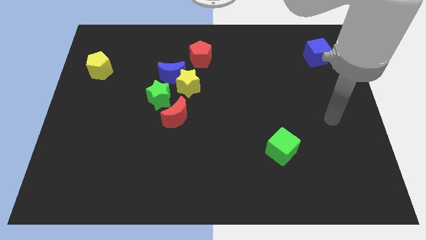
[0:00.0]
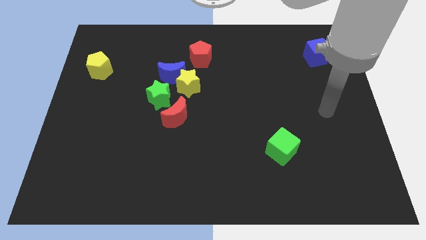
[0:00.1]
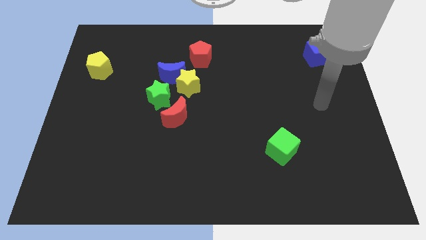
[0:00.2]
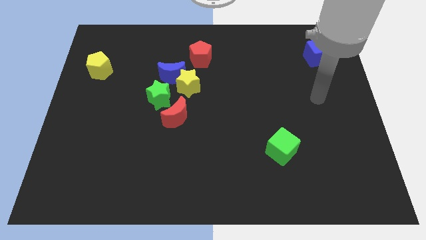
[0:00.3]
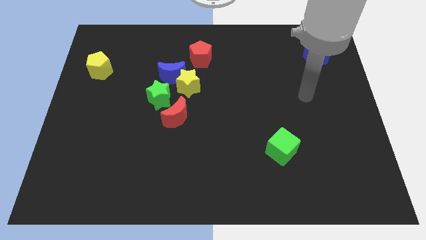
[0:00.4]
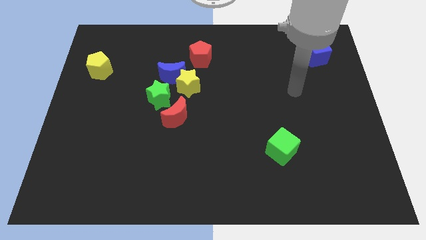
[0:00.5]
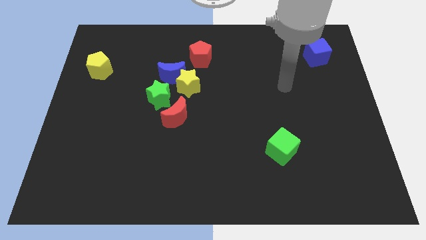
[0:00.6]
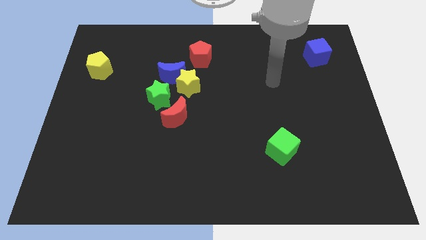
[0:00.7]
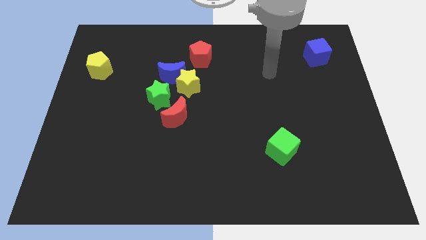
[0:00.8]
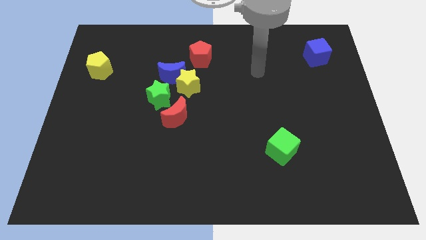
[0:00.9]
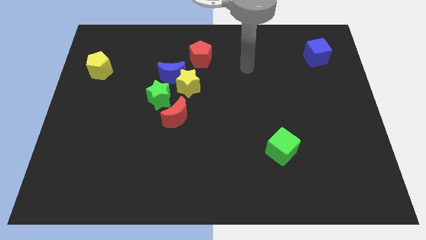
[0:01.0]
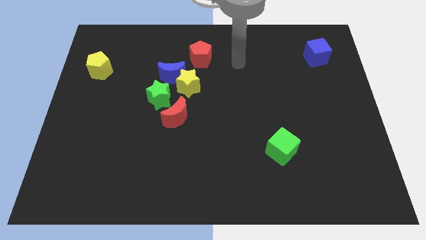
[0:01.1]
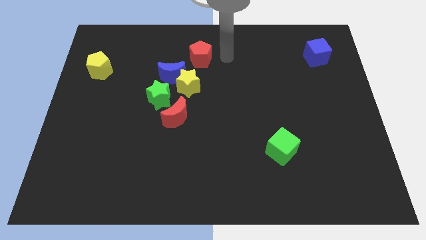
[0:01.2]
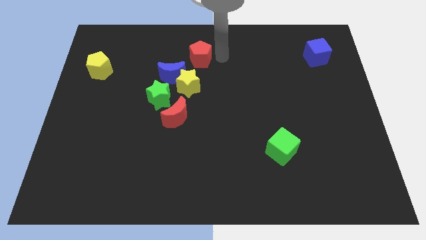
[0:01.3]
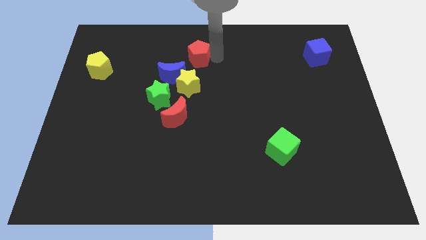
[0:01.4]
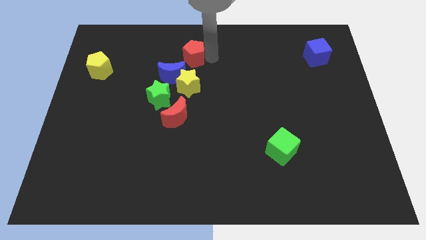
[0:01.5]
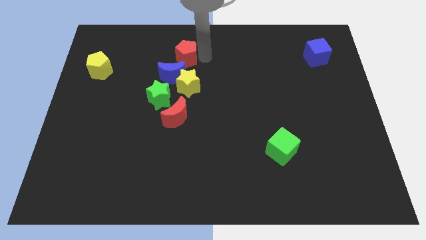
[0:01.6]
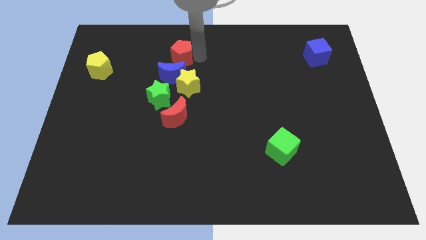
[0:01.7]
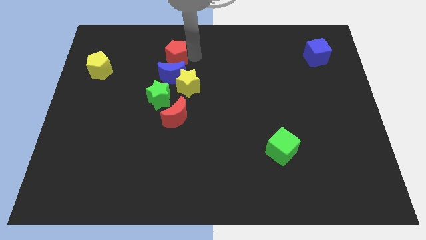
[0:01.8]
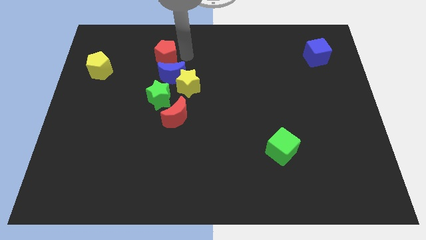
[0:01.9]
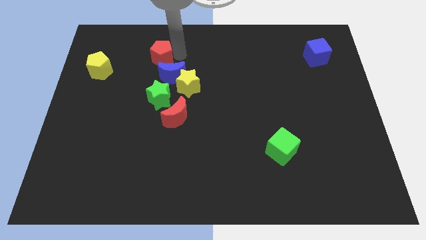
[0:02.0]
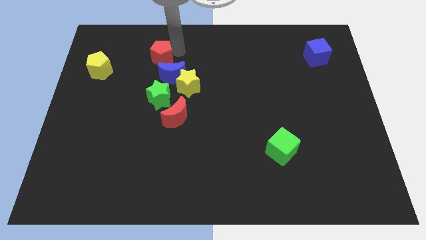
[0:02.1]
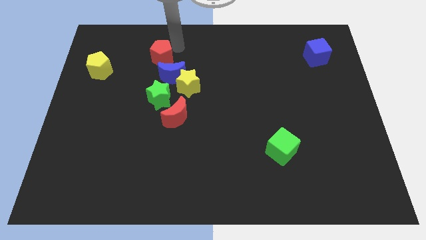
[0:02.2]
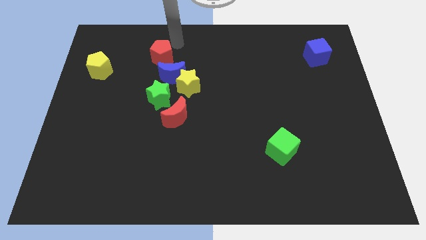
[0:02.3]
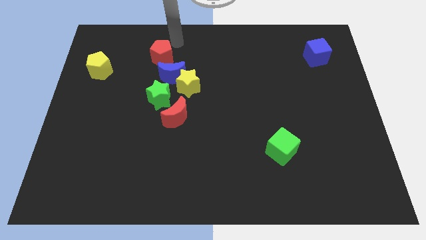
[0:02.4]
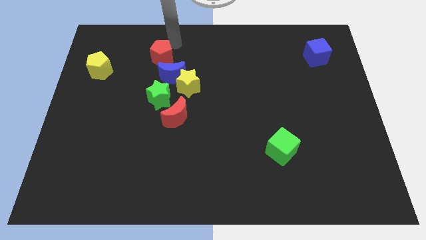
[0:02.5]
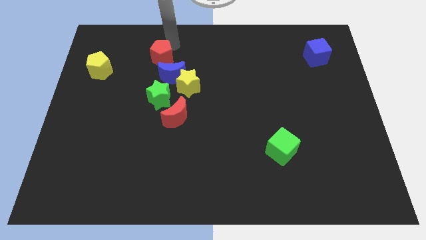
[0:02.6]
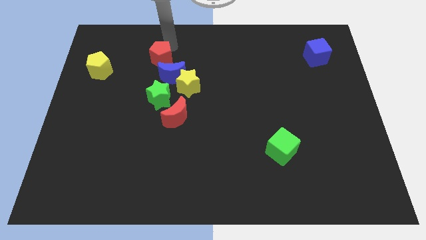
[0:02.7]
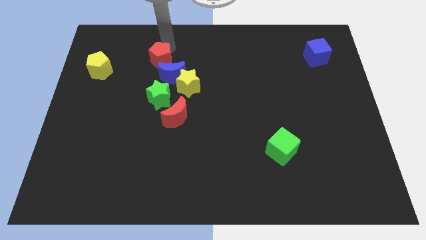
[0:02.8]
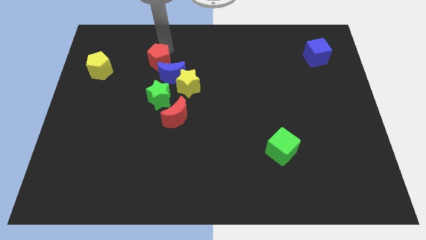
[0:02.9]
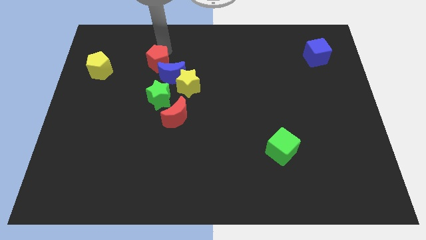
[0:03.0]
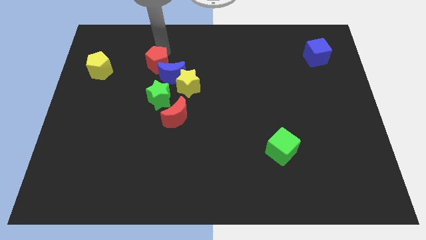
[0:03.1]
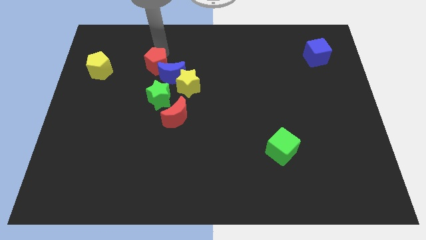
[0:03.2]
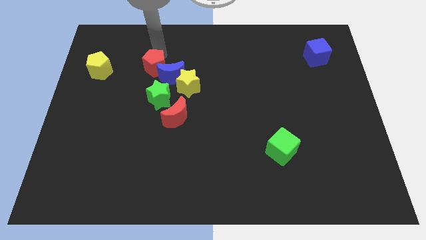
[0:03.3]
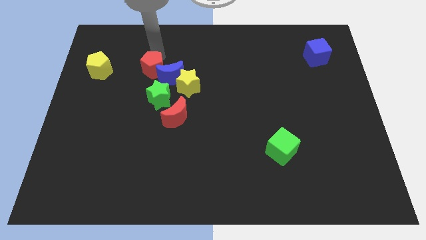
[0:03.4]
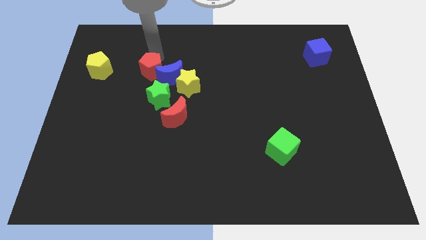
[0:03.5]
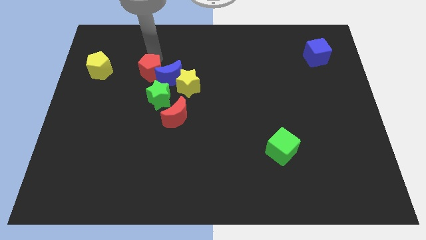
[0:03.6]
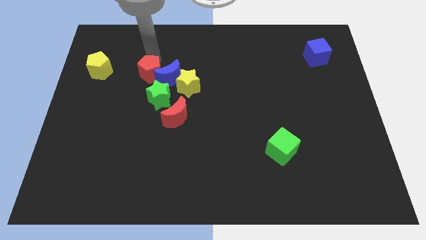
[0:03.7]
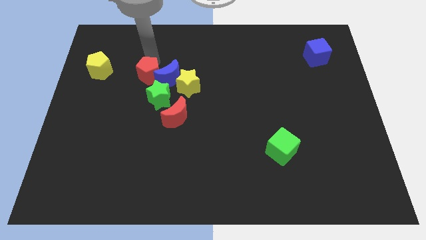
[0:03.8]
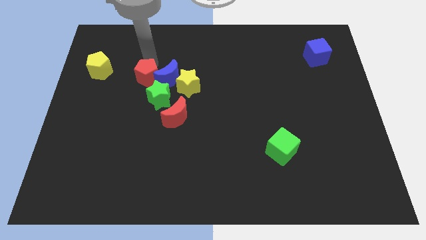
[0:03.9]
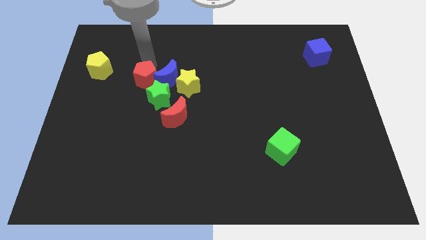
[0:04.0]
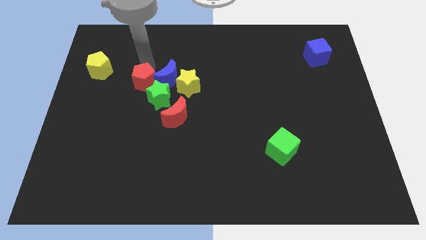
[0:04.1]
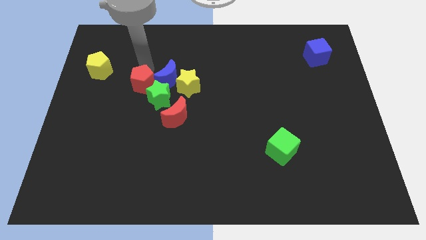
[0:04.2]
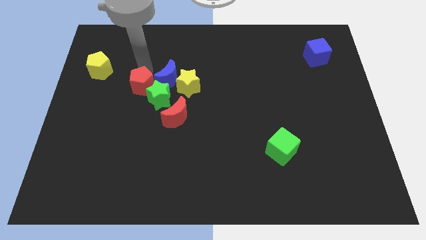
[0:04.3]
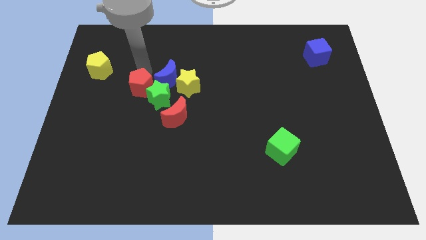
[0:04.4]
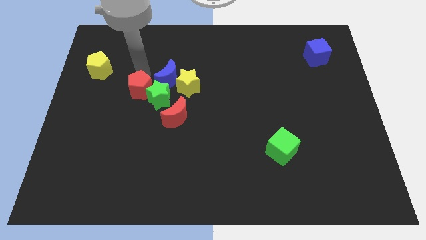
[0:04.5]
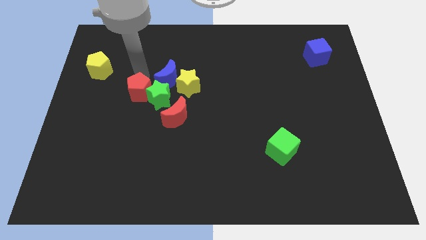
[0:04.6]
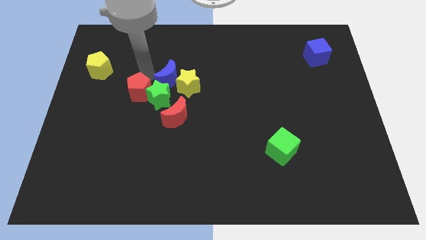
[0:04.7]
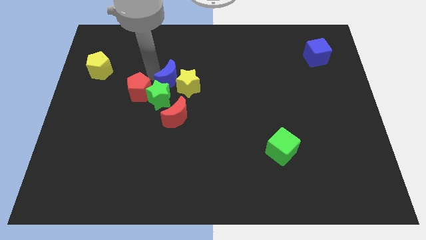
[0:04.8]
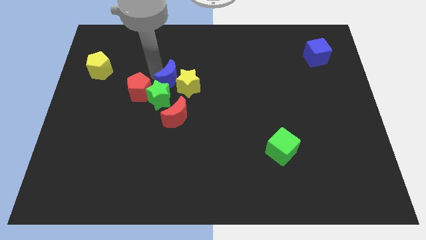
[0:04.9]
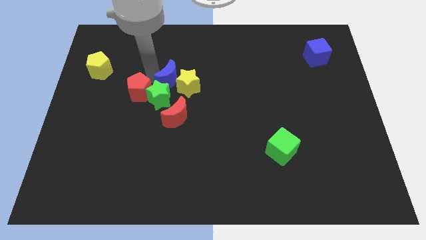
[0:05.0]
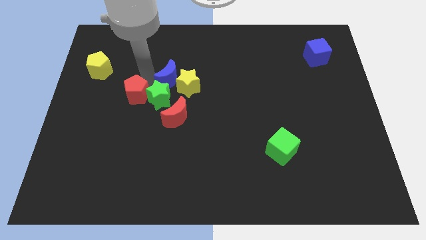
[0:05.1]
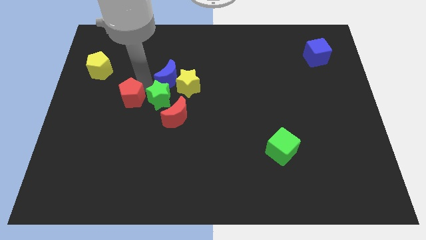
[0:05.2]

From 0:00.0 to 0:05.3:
slide the red pentagon down and left

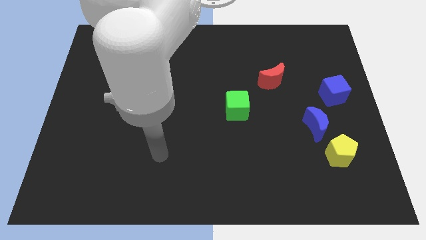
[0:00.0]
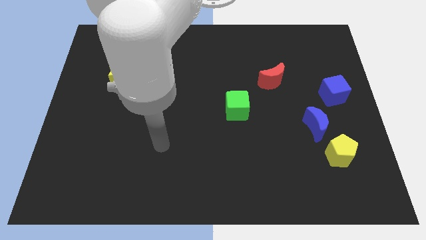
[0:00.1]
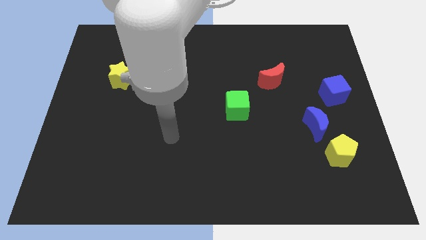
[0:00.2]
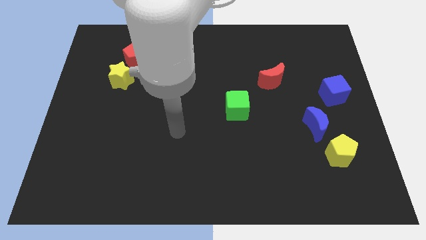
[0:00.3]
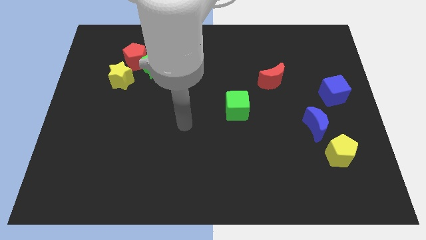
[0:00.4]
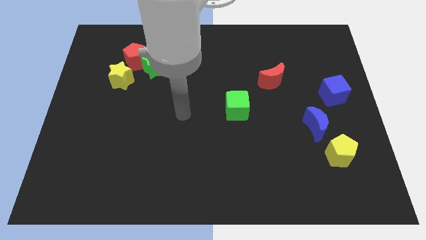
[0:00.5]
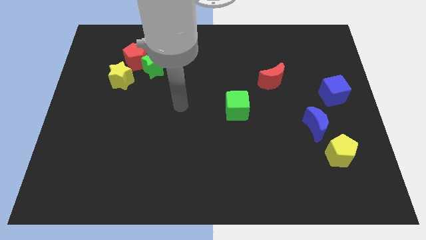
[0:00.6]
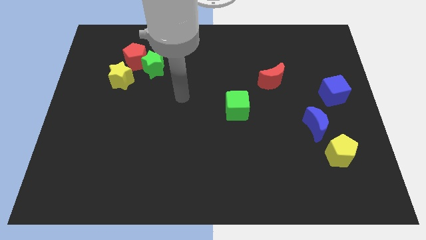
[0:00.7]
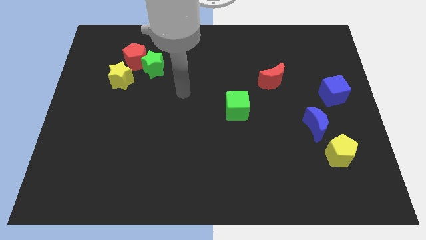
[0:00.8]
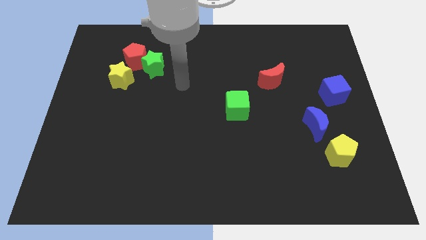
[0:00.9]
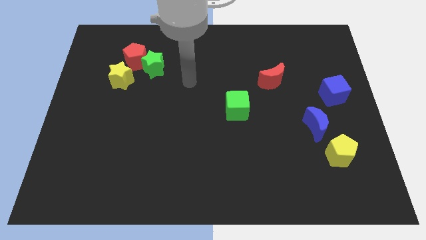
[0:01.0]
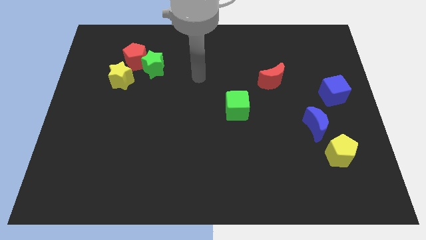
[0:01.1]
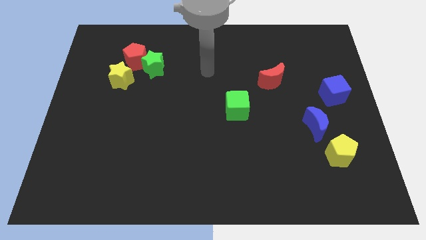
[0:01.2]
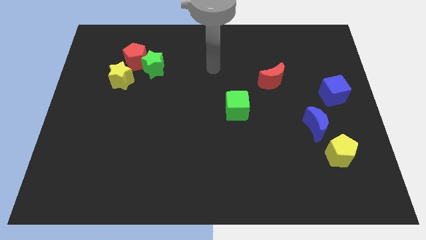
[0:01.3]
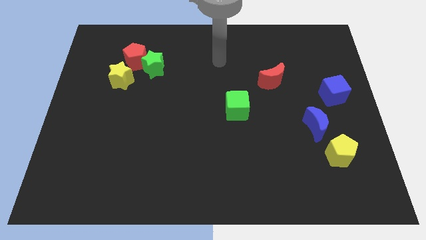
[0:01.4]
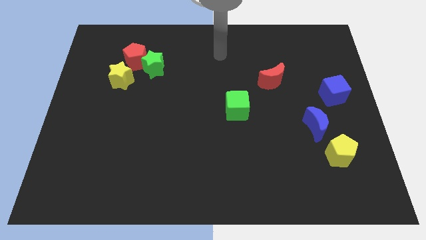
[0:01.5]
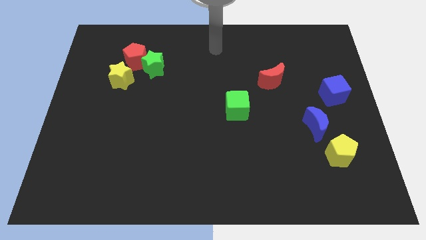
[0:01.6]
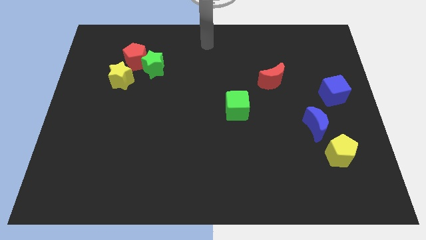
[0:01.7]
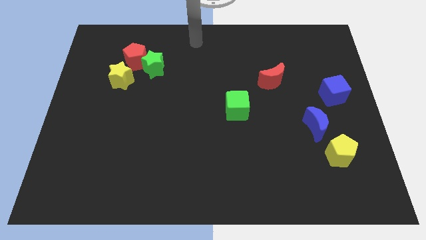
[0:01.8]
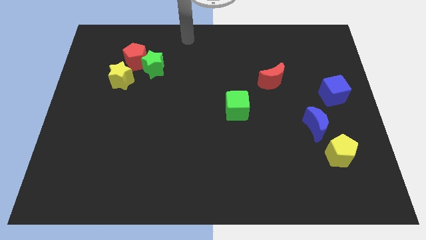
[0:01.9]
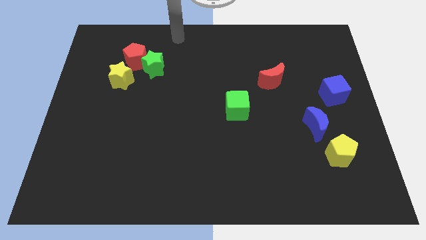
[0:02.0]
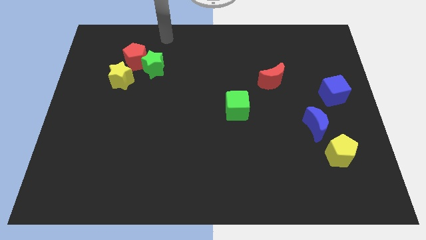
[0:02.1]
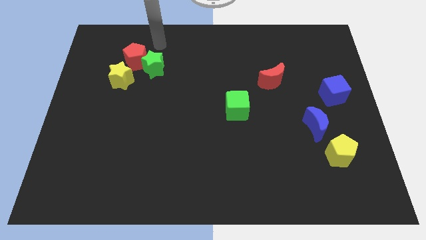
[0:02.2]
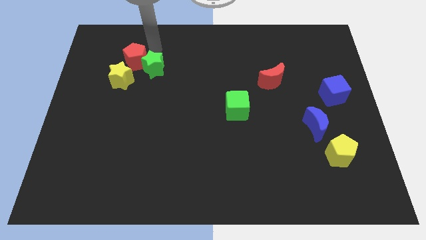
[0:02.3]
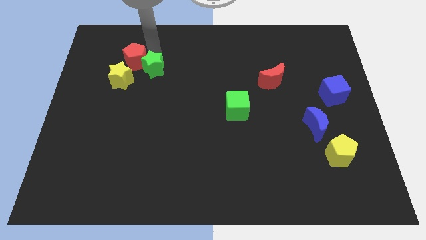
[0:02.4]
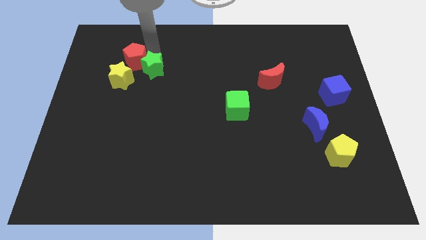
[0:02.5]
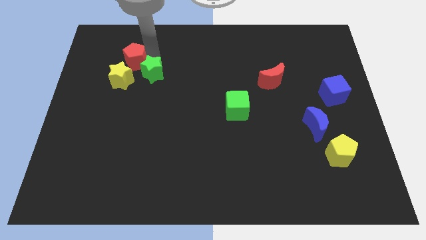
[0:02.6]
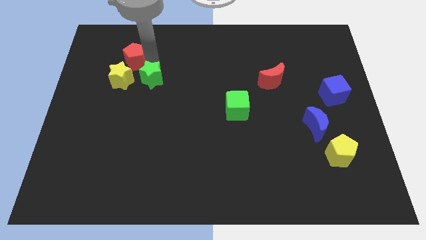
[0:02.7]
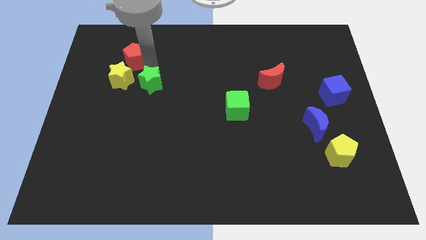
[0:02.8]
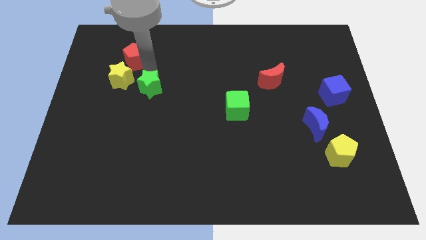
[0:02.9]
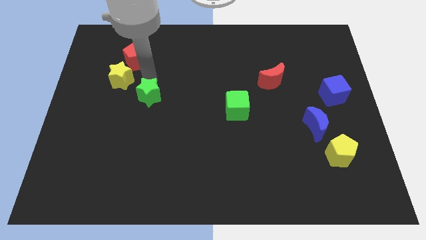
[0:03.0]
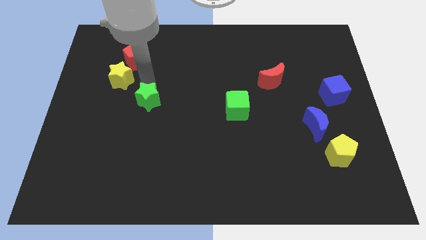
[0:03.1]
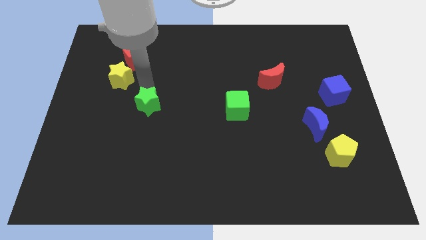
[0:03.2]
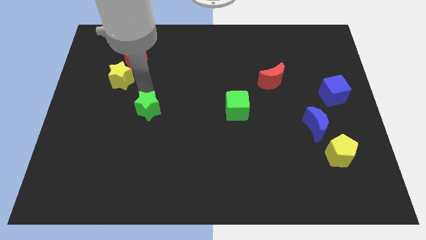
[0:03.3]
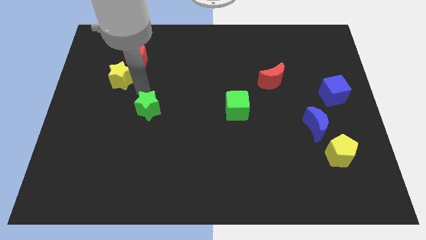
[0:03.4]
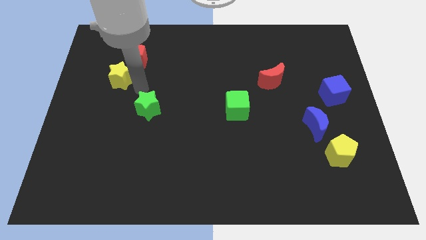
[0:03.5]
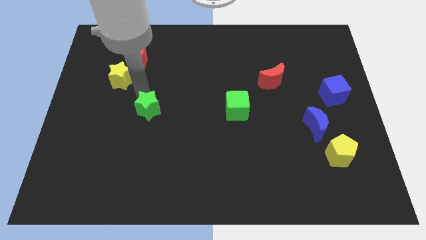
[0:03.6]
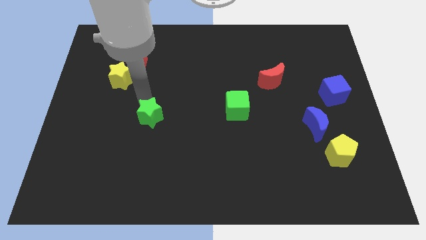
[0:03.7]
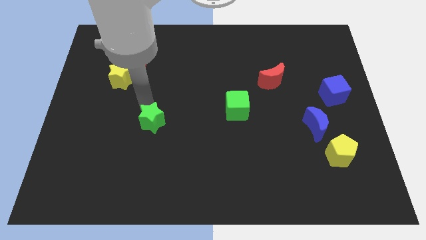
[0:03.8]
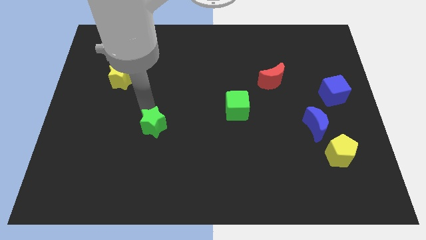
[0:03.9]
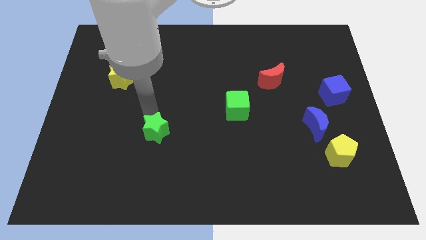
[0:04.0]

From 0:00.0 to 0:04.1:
push the green star down
